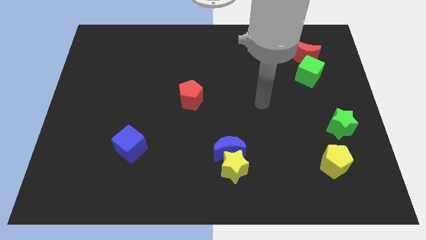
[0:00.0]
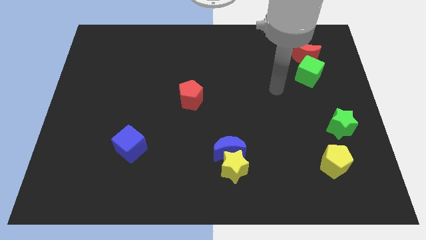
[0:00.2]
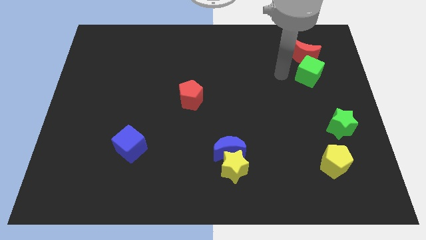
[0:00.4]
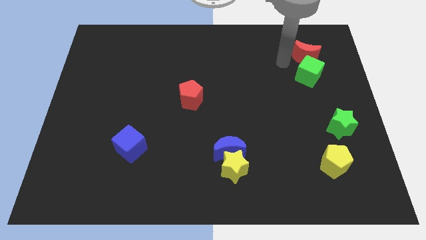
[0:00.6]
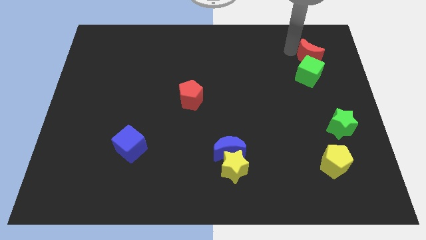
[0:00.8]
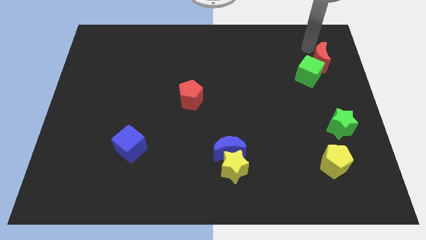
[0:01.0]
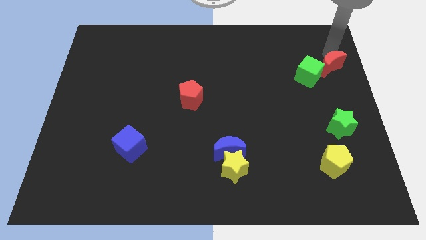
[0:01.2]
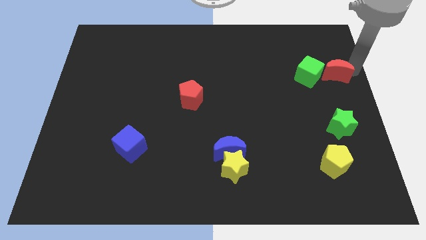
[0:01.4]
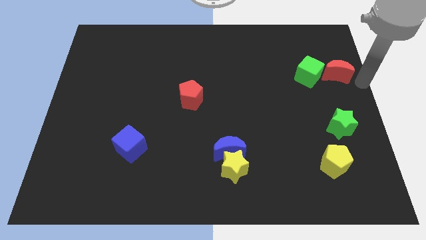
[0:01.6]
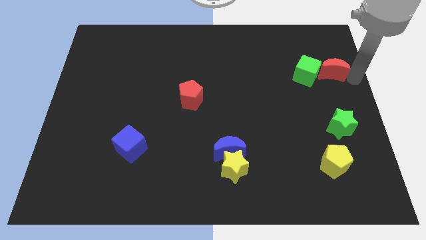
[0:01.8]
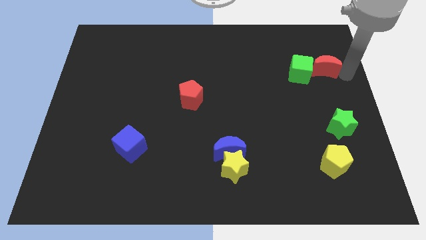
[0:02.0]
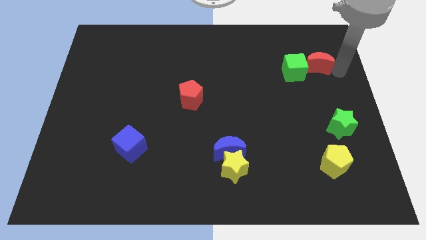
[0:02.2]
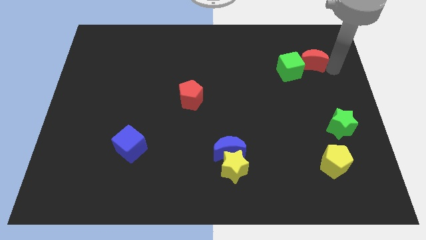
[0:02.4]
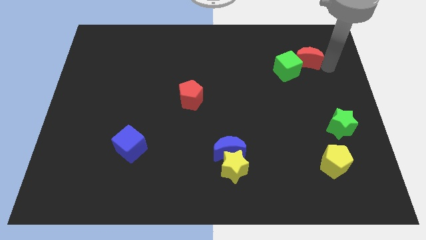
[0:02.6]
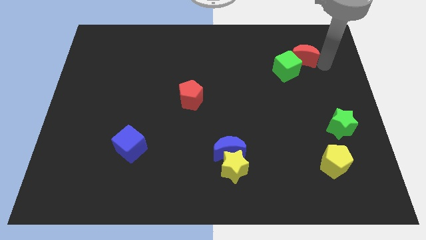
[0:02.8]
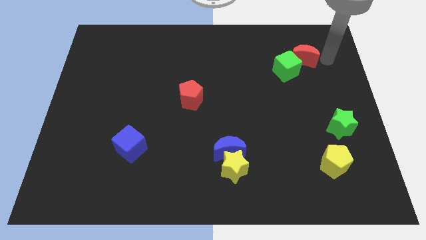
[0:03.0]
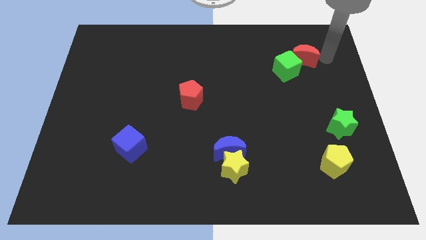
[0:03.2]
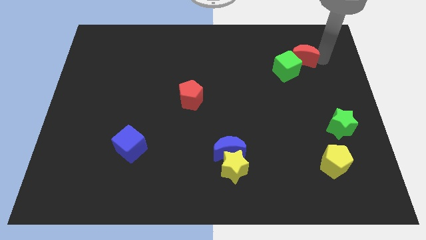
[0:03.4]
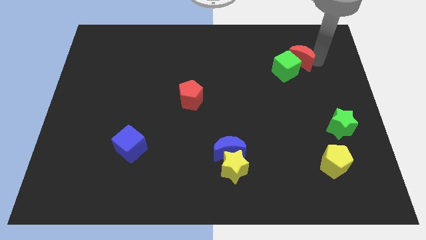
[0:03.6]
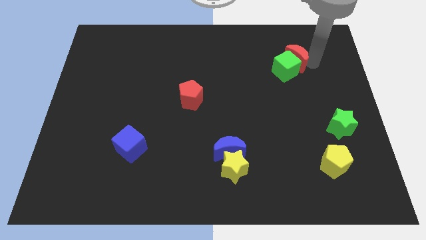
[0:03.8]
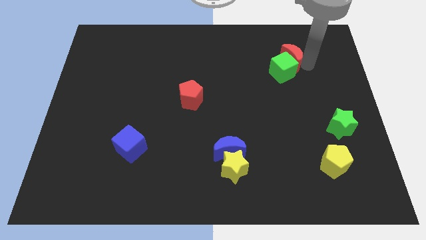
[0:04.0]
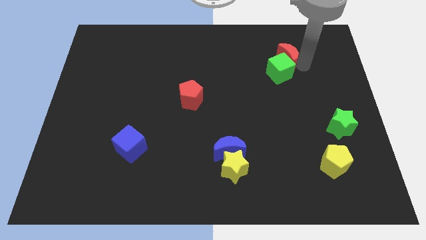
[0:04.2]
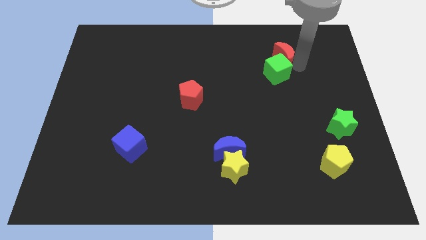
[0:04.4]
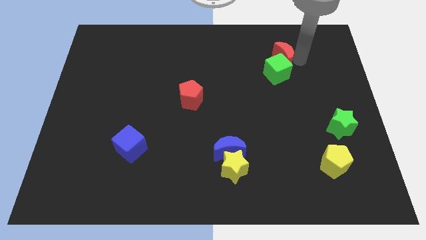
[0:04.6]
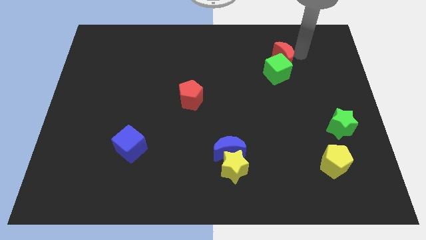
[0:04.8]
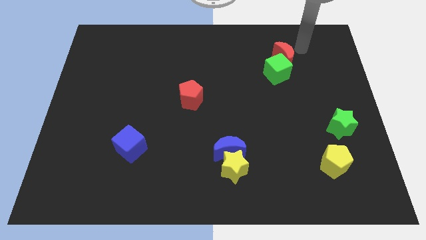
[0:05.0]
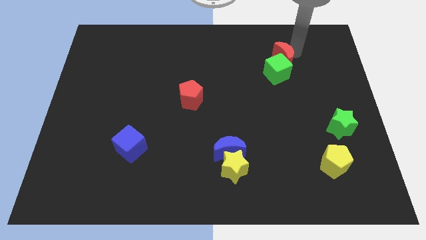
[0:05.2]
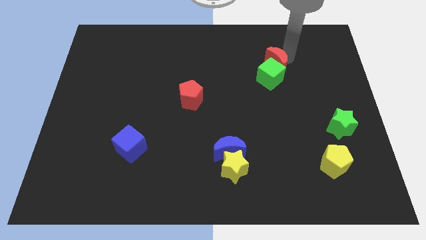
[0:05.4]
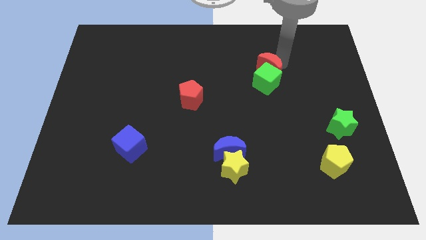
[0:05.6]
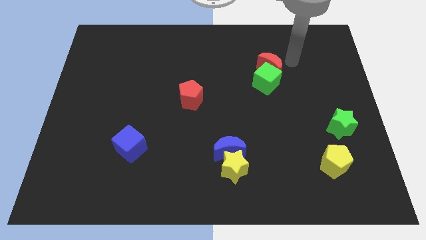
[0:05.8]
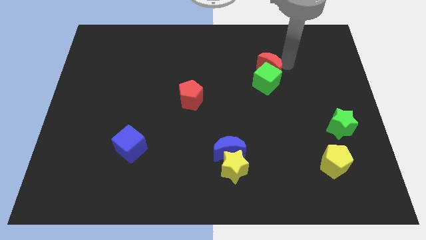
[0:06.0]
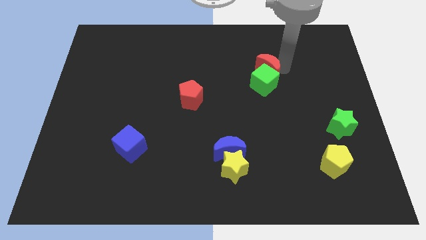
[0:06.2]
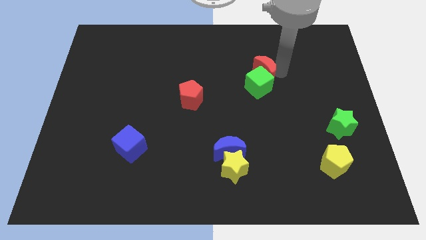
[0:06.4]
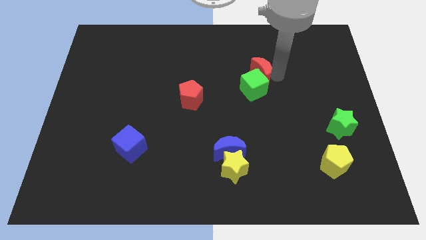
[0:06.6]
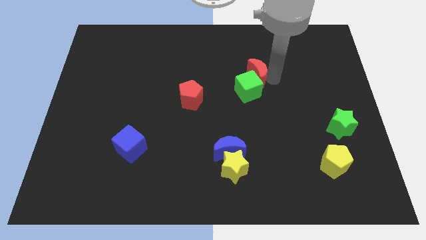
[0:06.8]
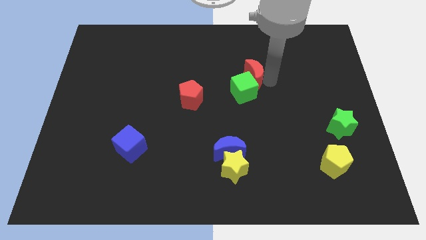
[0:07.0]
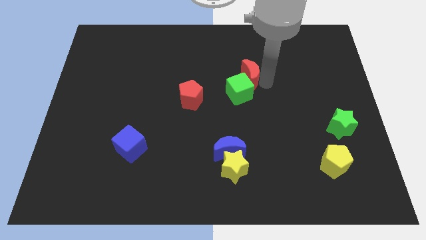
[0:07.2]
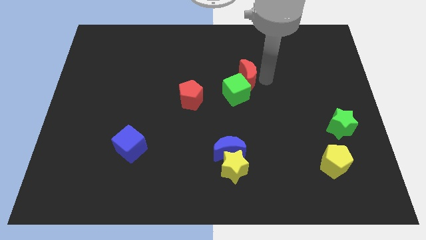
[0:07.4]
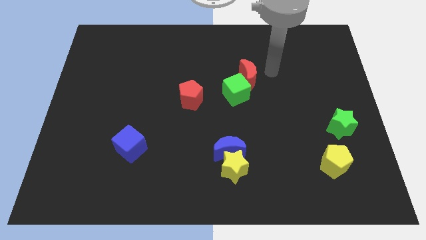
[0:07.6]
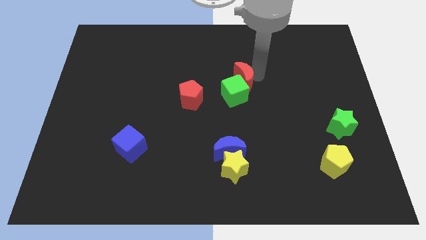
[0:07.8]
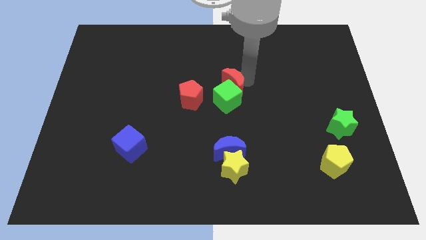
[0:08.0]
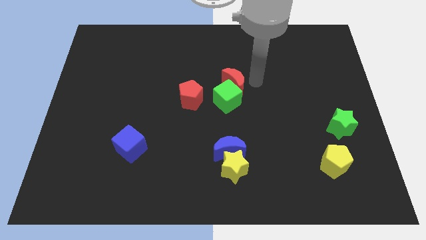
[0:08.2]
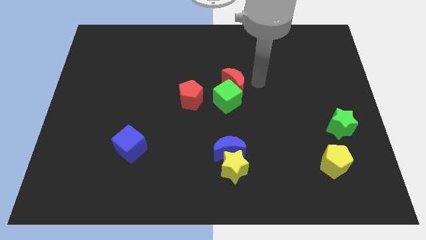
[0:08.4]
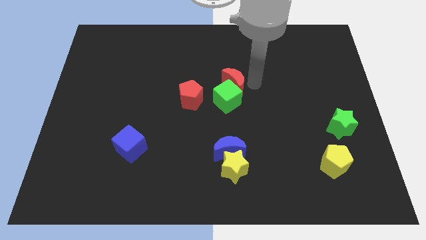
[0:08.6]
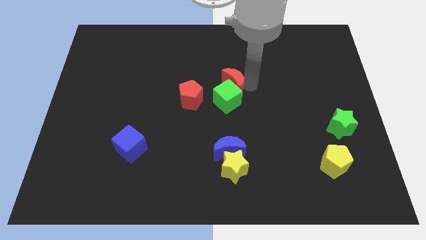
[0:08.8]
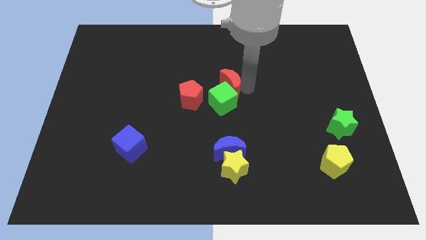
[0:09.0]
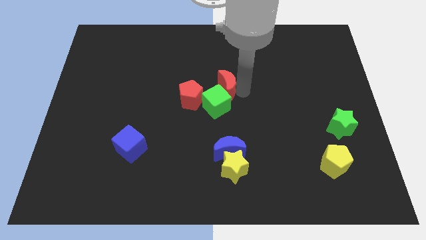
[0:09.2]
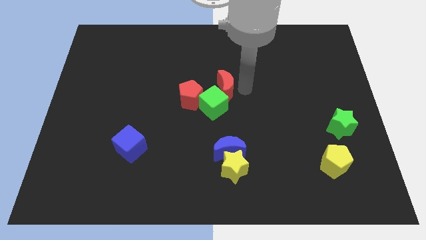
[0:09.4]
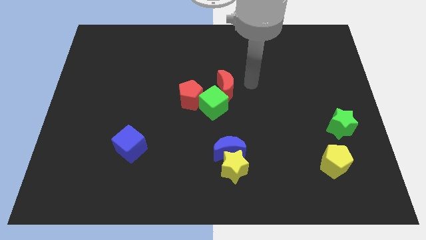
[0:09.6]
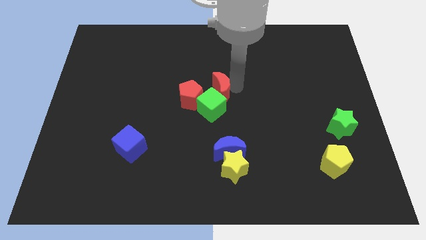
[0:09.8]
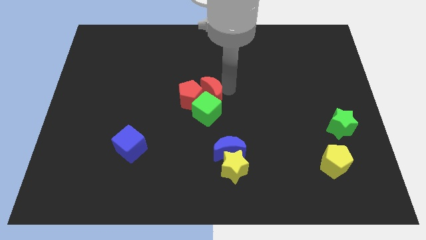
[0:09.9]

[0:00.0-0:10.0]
slide the red moon towards the red pentagon

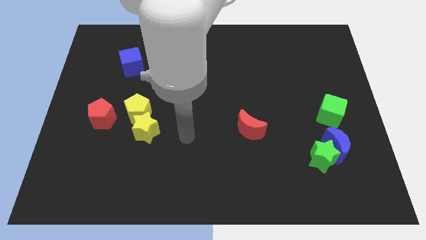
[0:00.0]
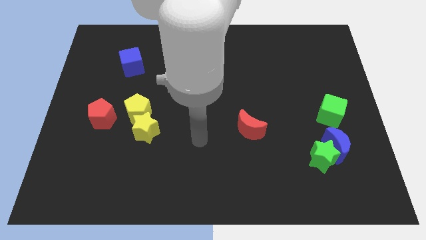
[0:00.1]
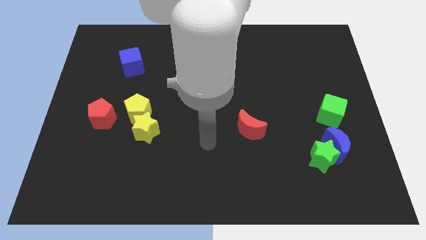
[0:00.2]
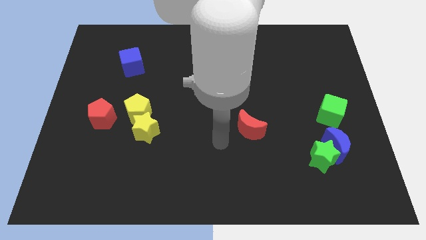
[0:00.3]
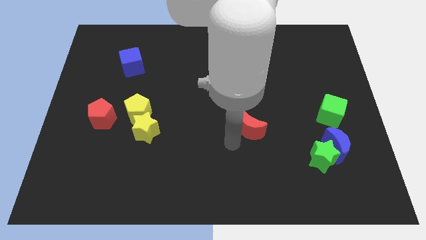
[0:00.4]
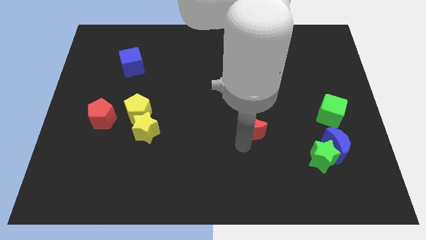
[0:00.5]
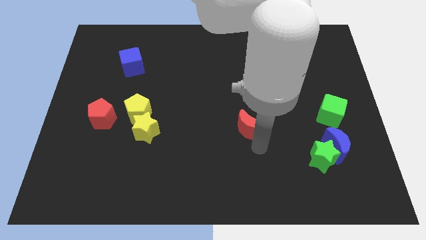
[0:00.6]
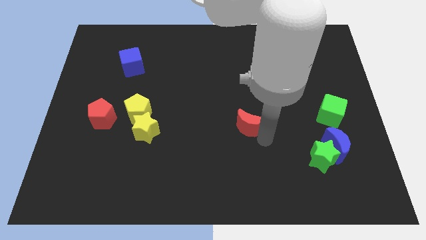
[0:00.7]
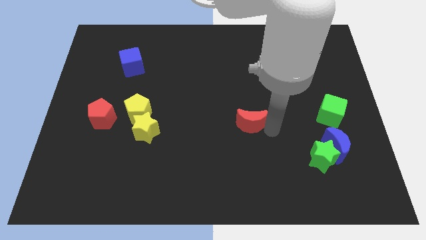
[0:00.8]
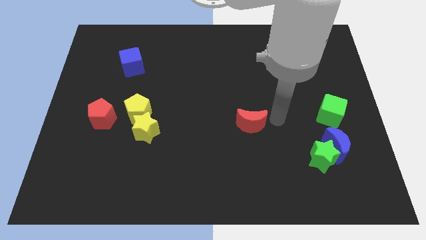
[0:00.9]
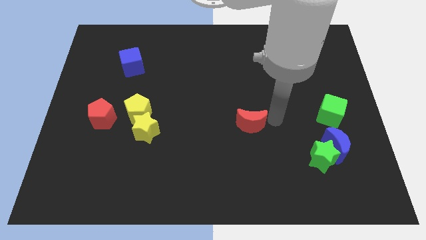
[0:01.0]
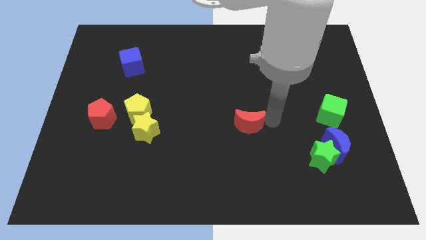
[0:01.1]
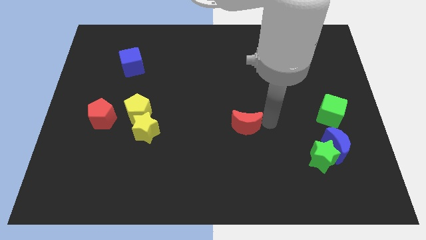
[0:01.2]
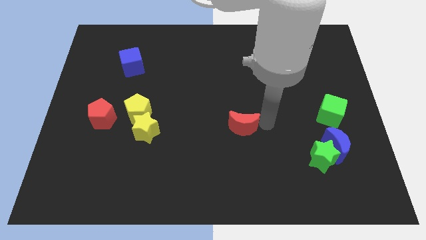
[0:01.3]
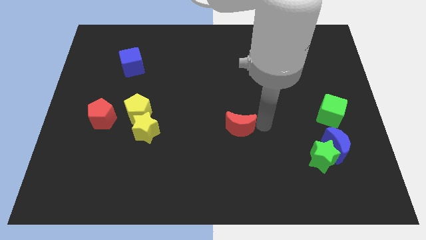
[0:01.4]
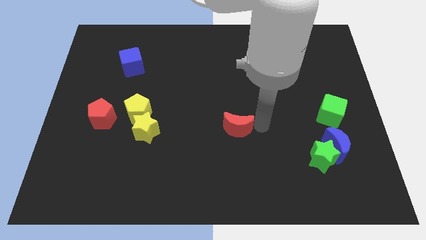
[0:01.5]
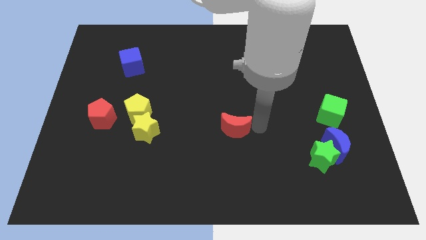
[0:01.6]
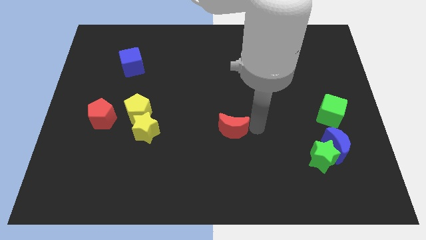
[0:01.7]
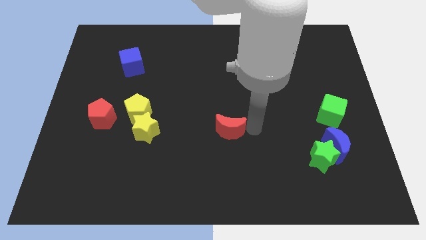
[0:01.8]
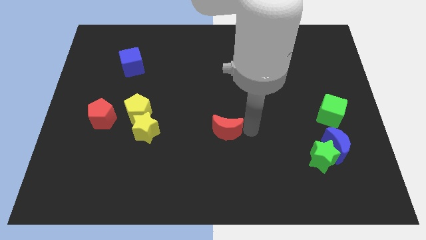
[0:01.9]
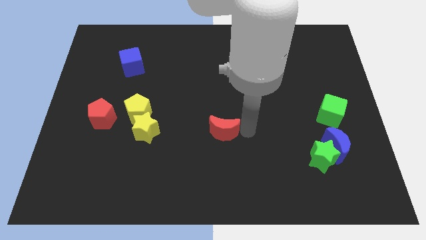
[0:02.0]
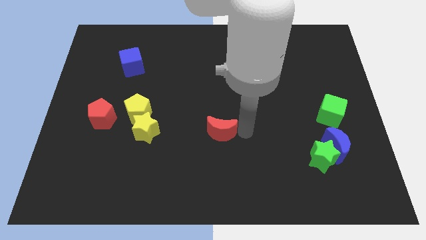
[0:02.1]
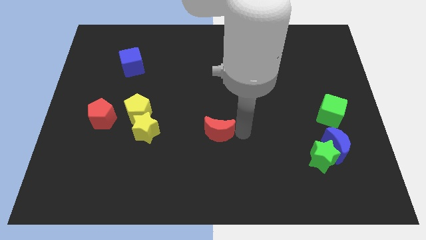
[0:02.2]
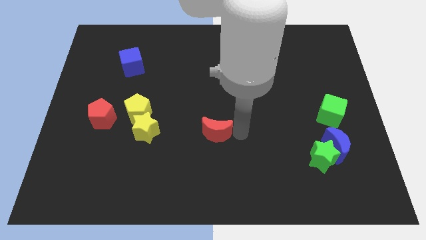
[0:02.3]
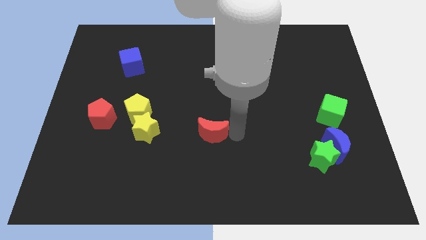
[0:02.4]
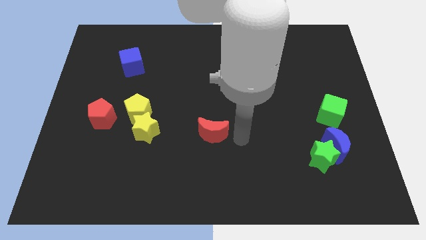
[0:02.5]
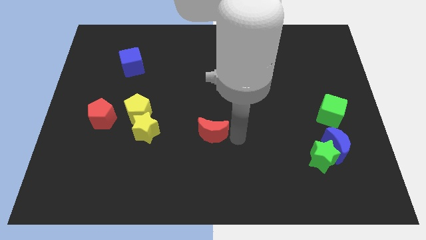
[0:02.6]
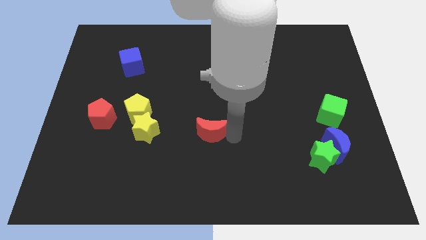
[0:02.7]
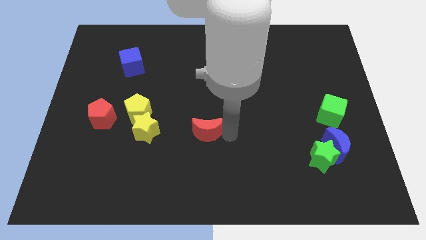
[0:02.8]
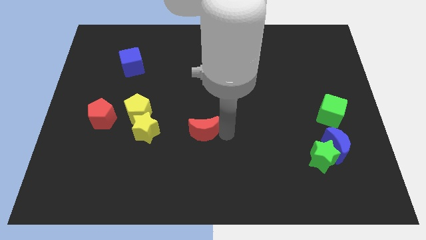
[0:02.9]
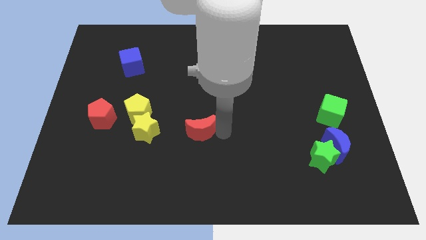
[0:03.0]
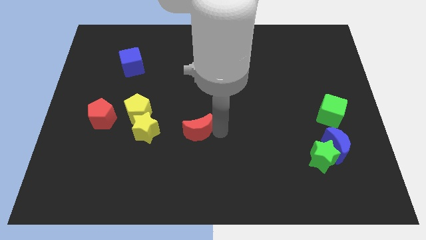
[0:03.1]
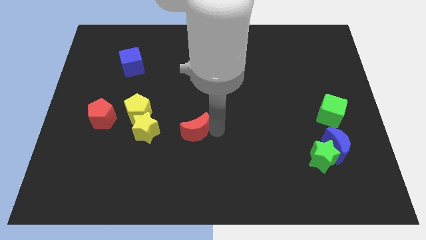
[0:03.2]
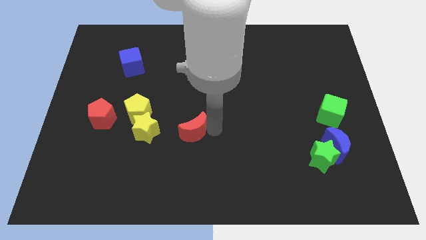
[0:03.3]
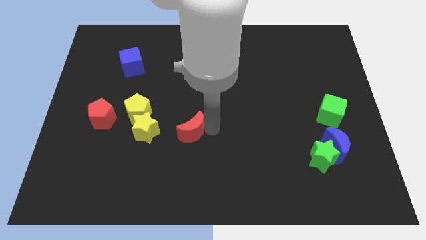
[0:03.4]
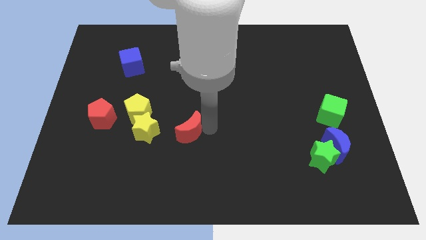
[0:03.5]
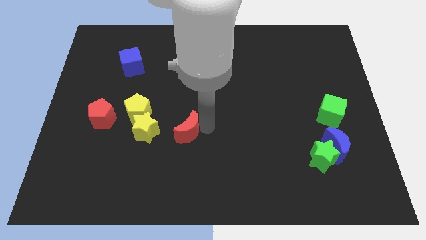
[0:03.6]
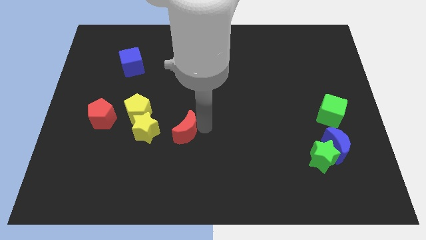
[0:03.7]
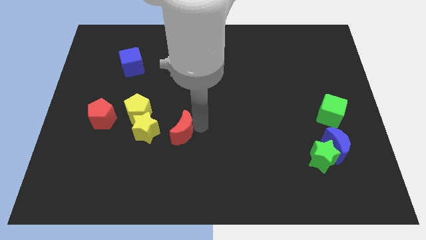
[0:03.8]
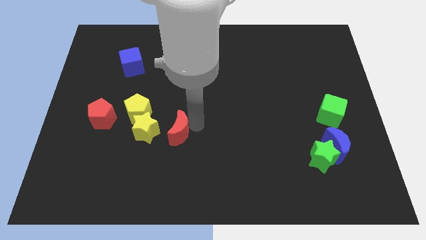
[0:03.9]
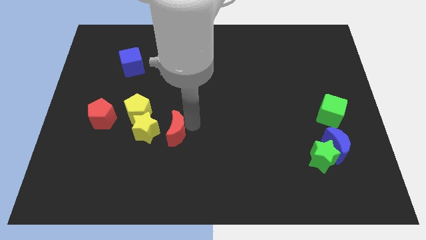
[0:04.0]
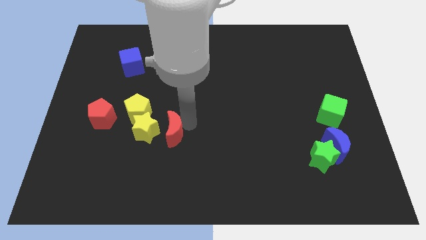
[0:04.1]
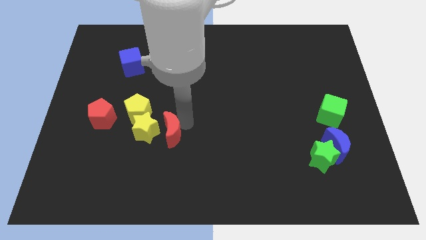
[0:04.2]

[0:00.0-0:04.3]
push the red moon towards the yellow star
